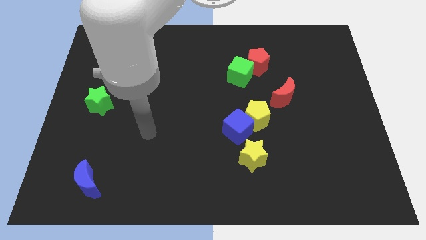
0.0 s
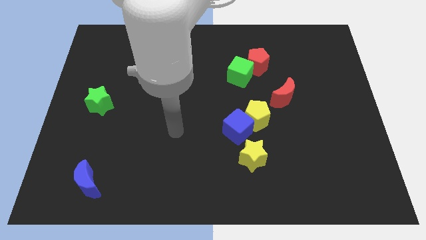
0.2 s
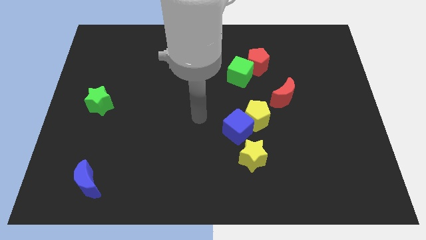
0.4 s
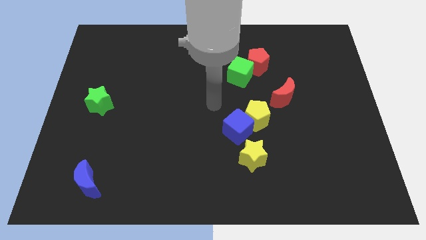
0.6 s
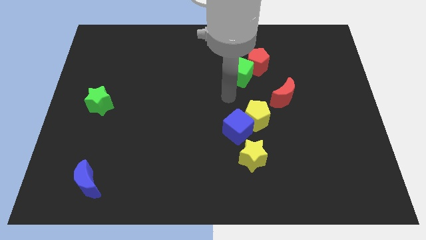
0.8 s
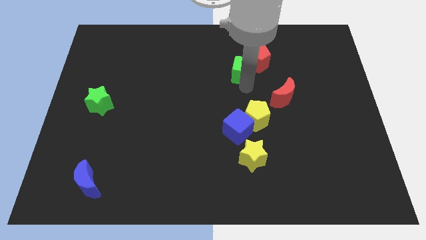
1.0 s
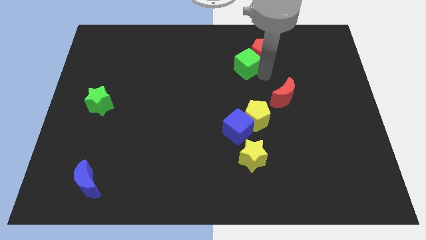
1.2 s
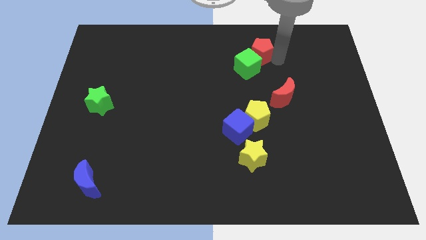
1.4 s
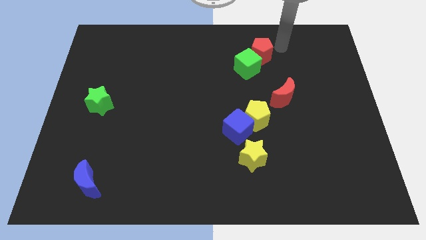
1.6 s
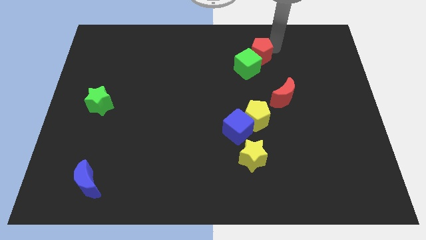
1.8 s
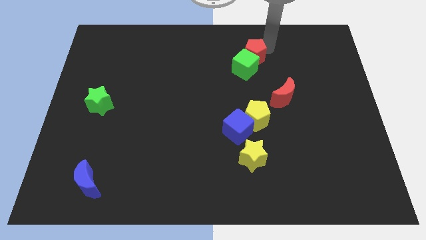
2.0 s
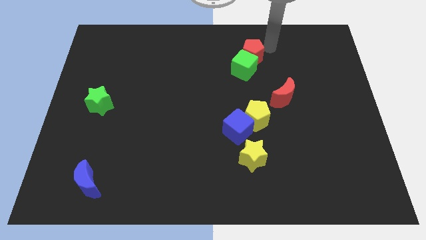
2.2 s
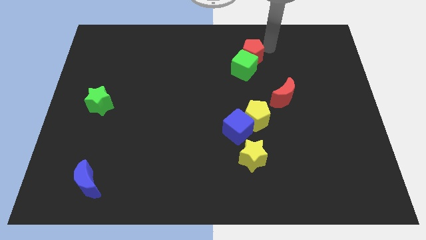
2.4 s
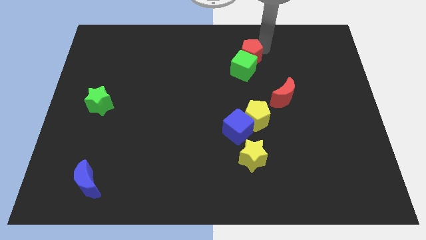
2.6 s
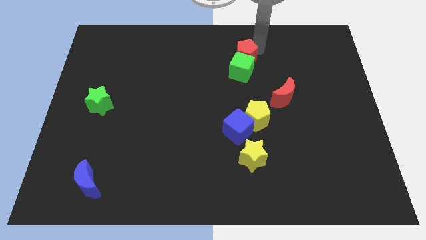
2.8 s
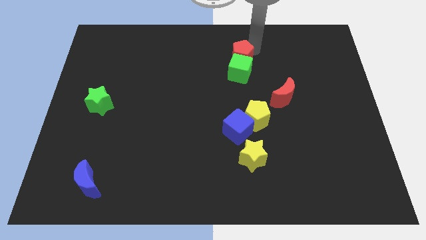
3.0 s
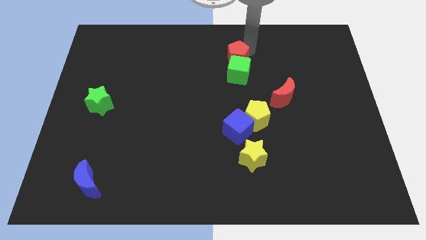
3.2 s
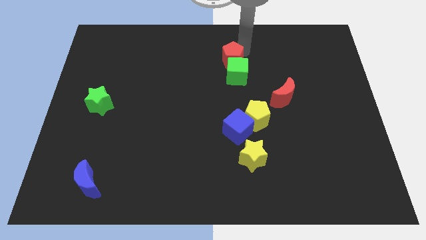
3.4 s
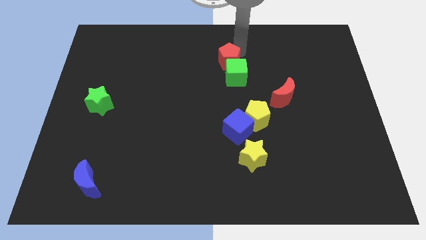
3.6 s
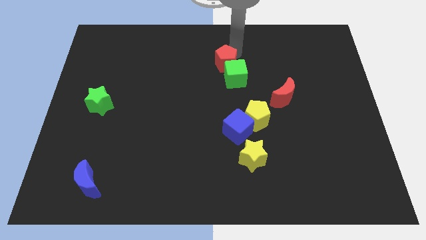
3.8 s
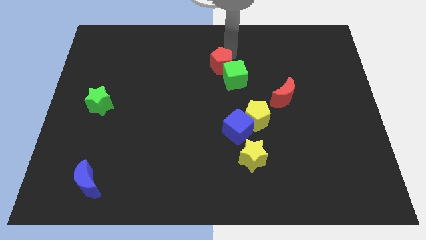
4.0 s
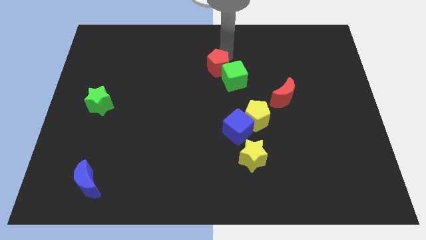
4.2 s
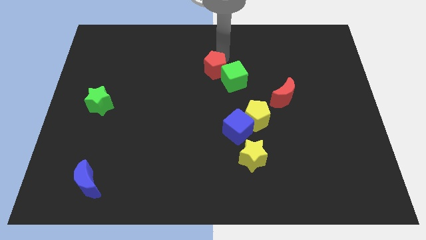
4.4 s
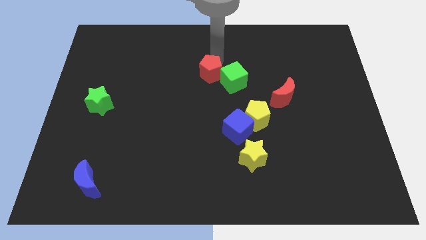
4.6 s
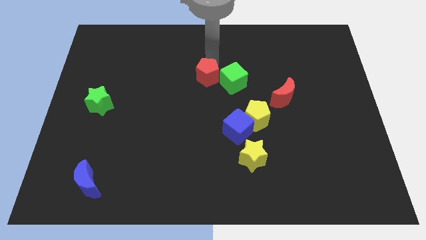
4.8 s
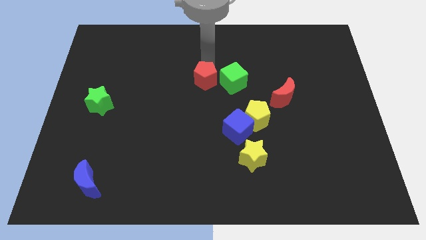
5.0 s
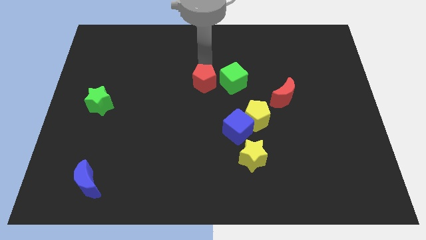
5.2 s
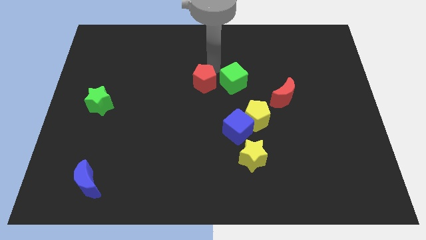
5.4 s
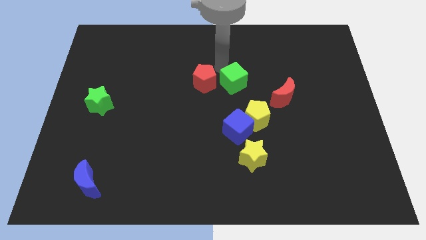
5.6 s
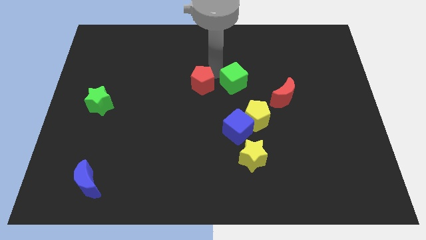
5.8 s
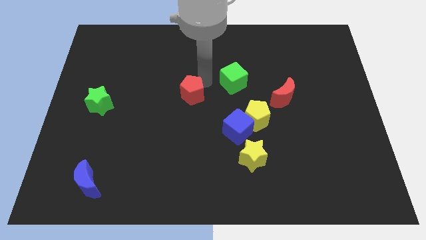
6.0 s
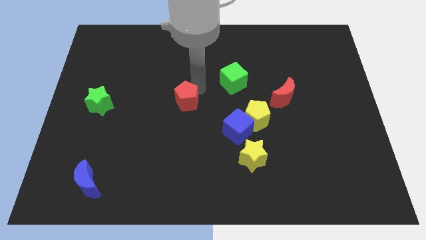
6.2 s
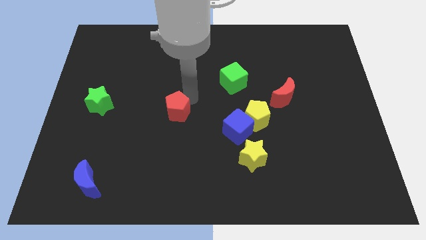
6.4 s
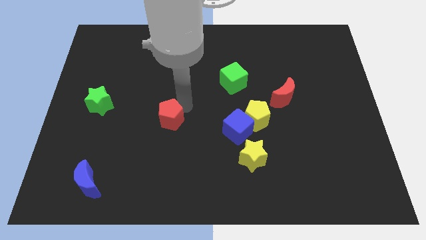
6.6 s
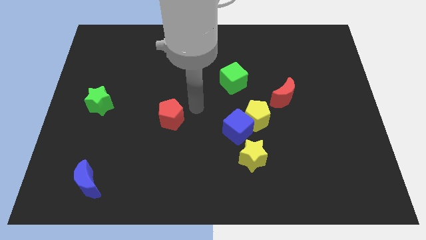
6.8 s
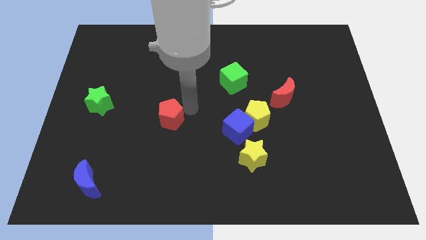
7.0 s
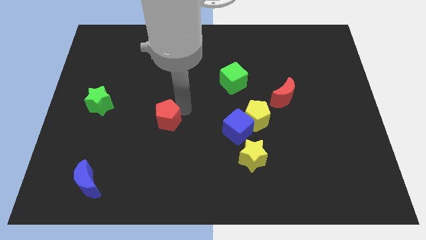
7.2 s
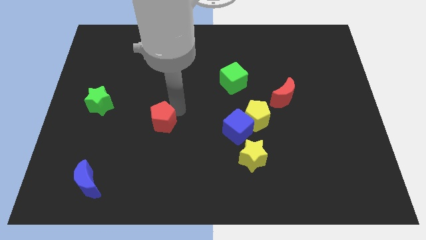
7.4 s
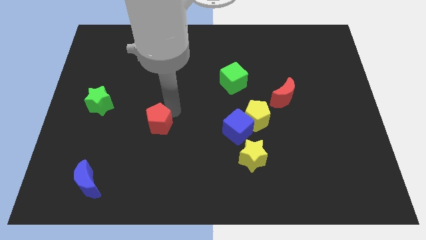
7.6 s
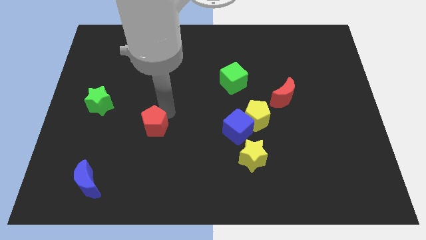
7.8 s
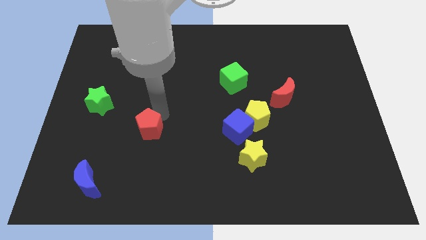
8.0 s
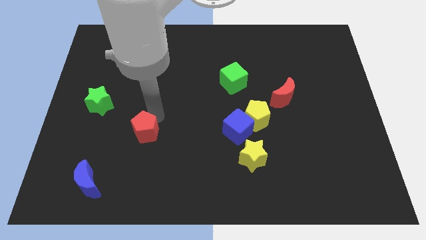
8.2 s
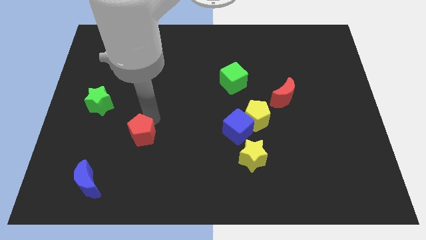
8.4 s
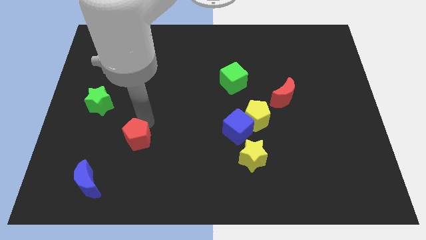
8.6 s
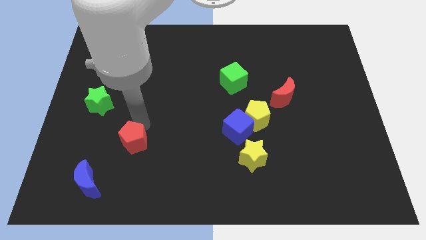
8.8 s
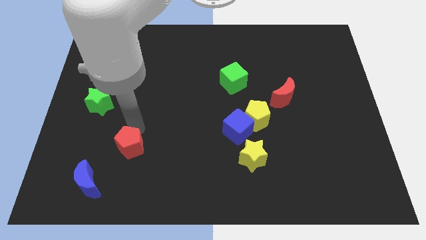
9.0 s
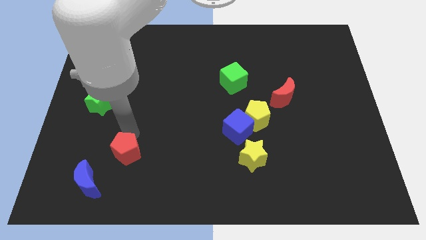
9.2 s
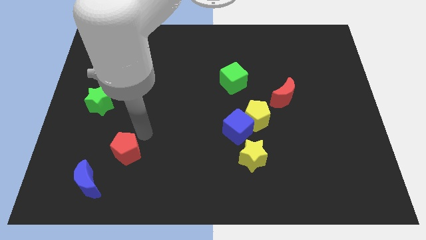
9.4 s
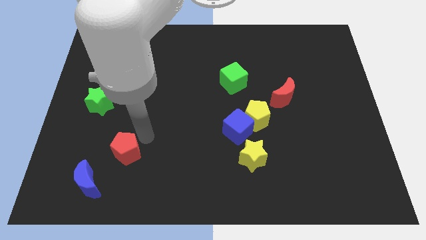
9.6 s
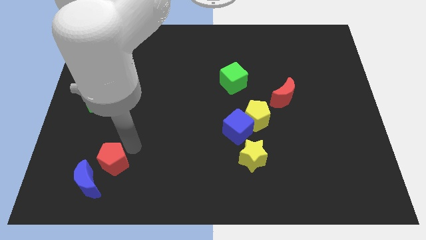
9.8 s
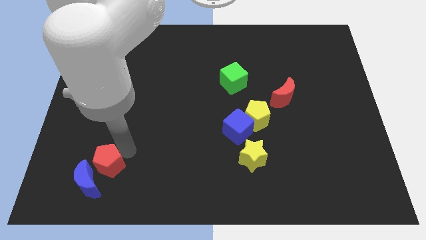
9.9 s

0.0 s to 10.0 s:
slide the red pentagon to the blue moon

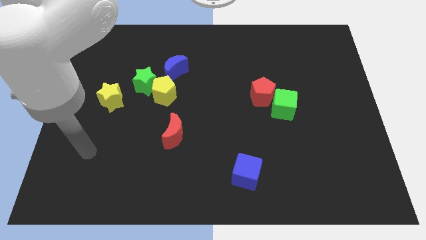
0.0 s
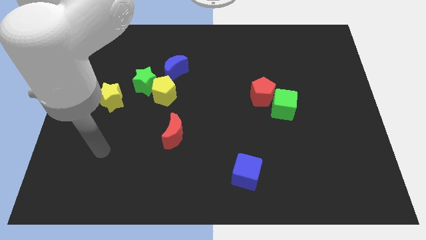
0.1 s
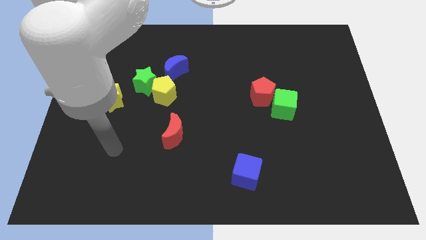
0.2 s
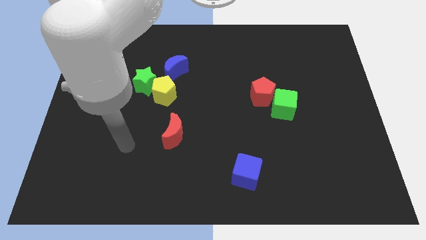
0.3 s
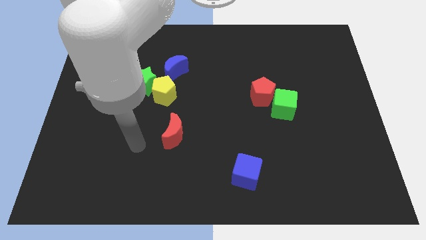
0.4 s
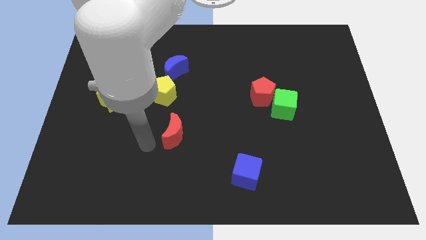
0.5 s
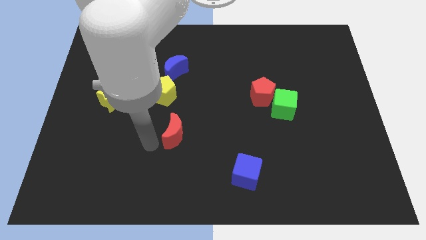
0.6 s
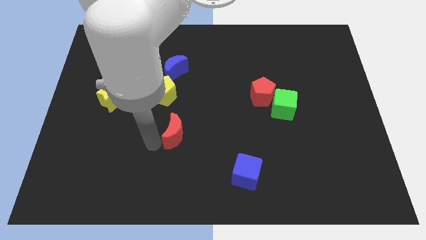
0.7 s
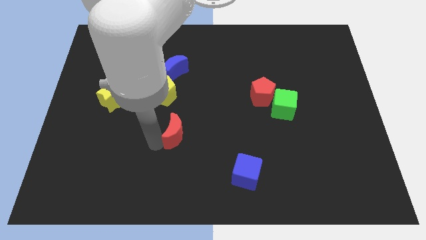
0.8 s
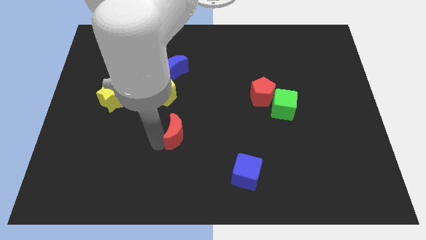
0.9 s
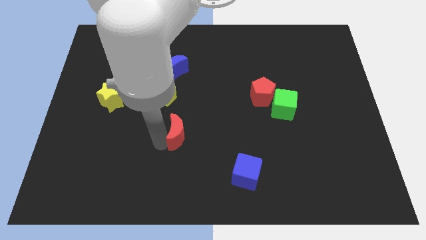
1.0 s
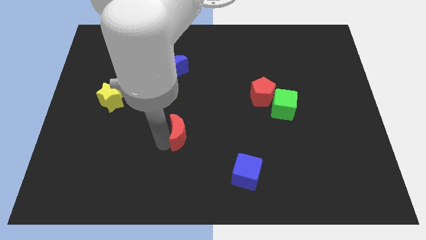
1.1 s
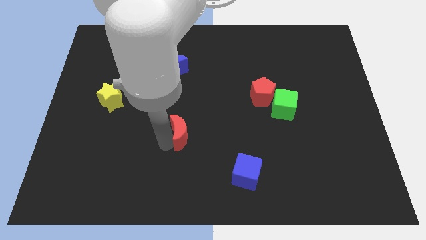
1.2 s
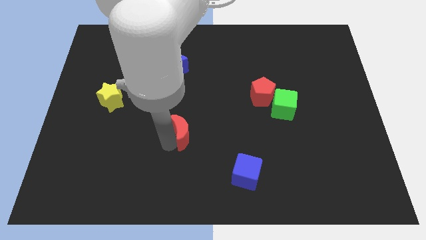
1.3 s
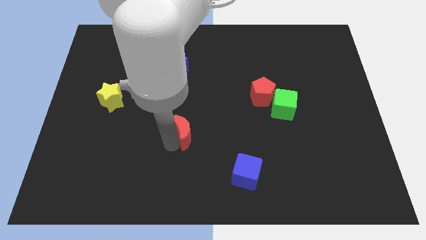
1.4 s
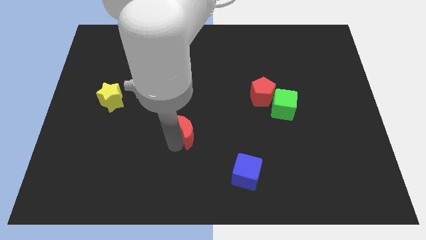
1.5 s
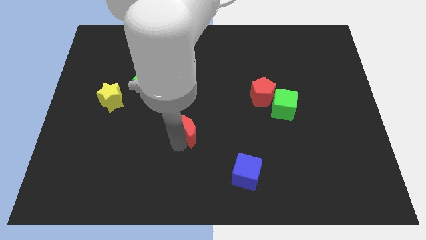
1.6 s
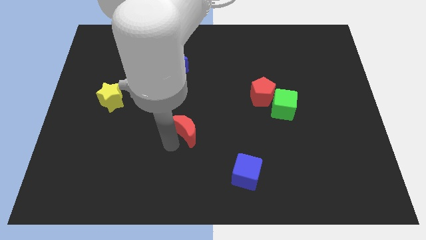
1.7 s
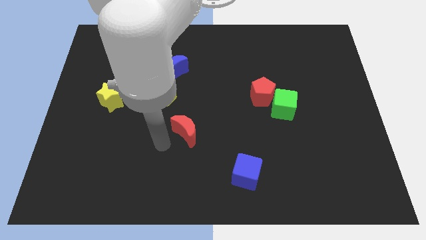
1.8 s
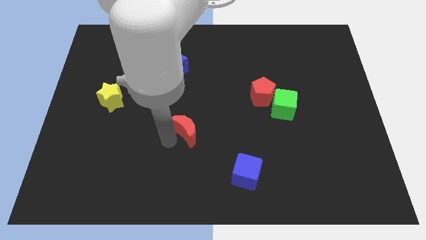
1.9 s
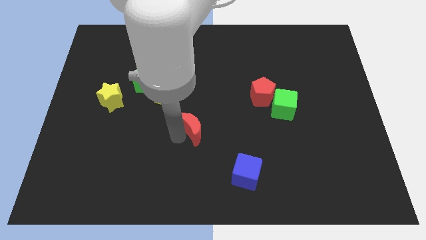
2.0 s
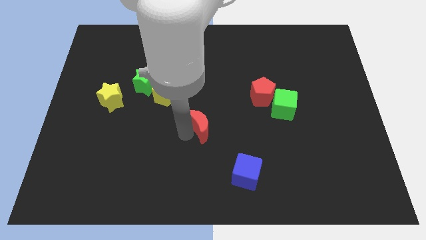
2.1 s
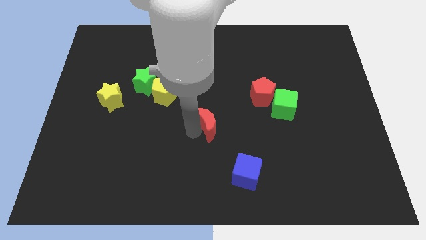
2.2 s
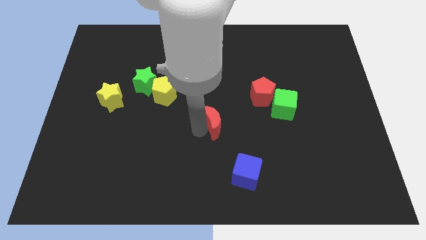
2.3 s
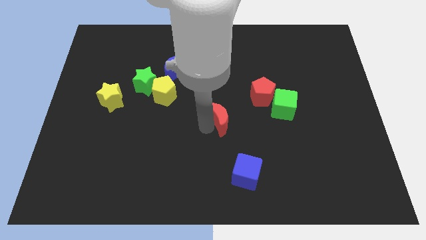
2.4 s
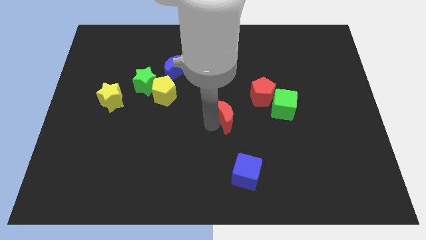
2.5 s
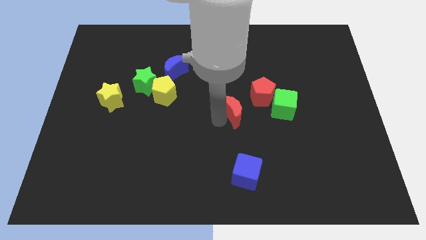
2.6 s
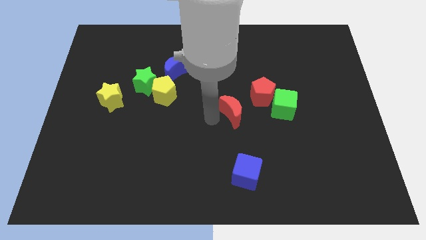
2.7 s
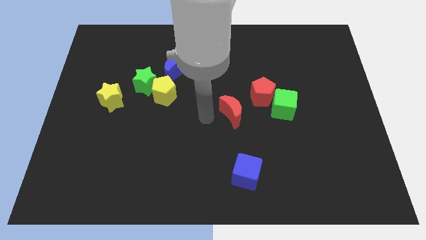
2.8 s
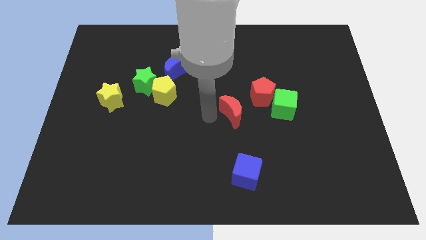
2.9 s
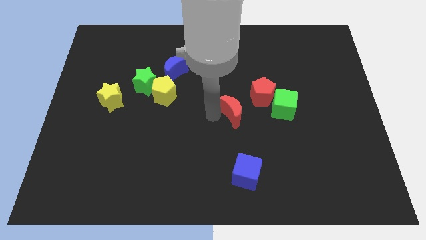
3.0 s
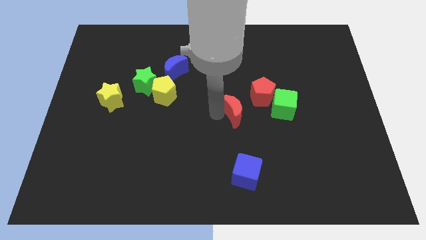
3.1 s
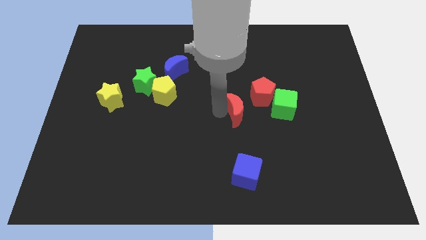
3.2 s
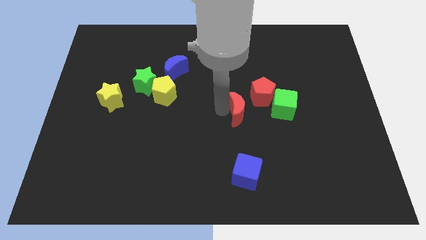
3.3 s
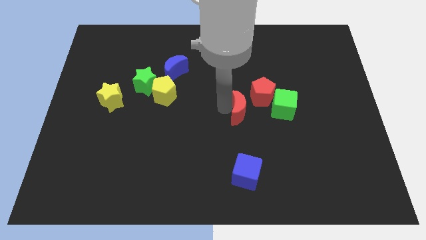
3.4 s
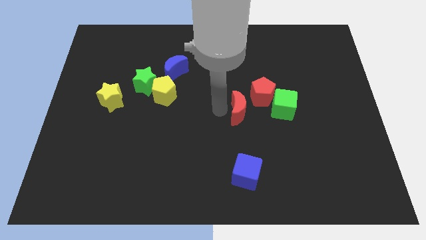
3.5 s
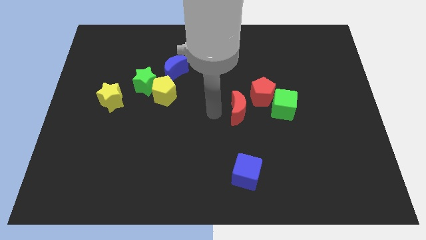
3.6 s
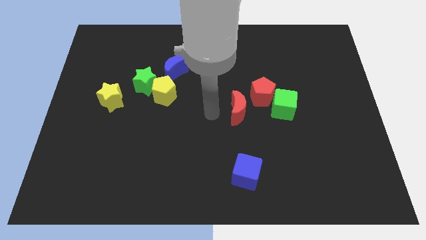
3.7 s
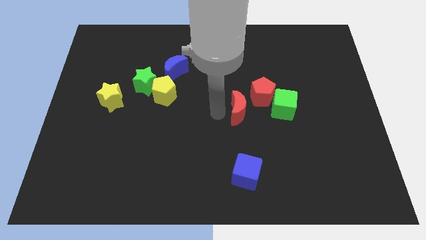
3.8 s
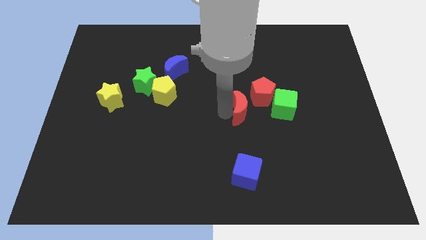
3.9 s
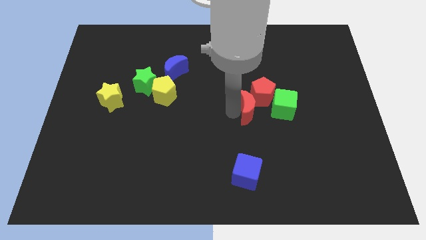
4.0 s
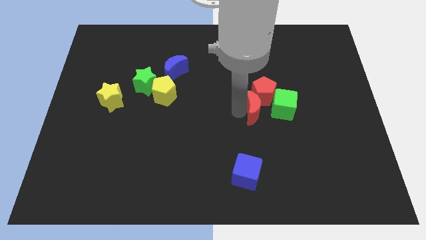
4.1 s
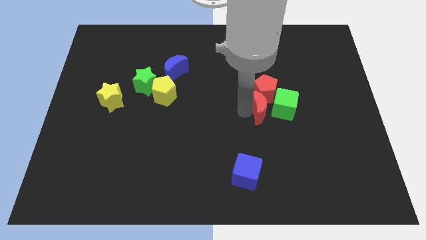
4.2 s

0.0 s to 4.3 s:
move the red moon to the green cube
